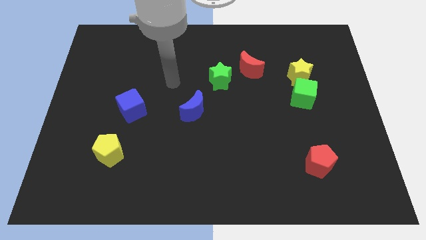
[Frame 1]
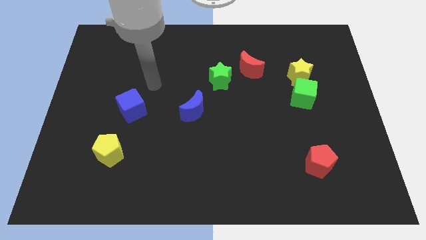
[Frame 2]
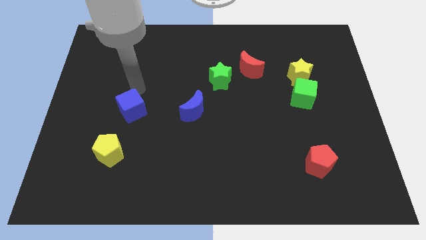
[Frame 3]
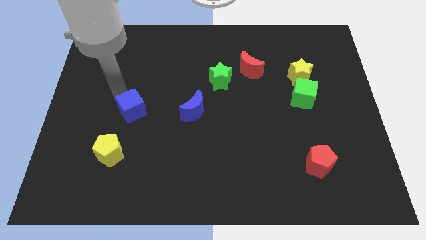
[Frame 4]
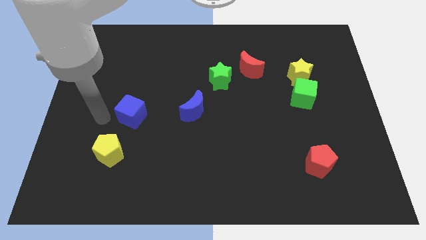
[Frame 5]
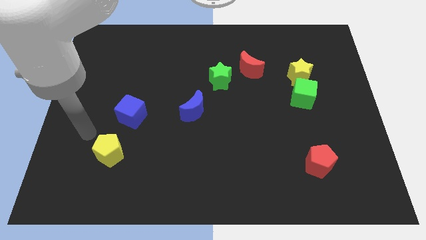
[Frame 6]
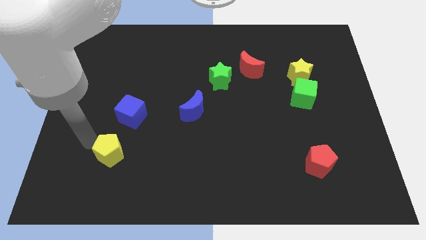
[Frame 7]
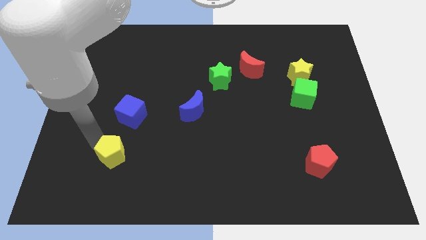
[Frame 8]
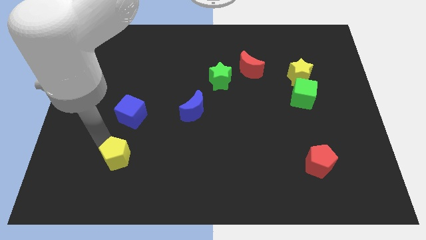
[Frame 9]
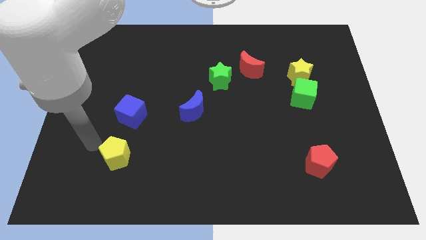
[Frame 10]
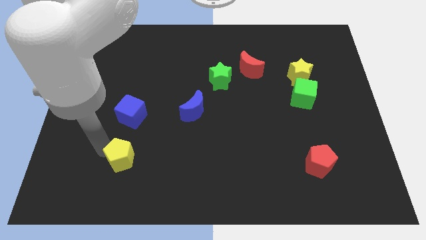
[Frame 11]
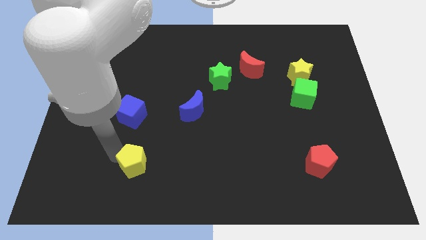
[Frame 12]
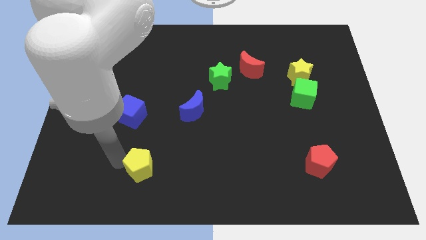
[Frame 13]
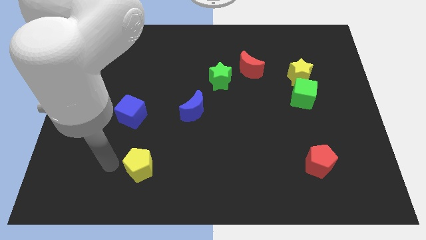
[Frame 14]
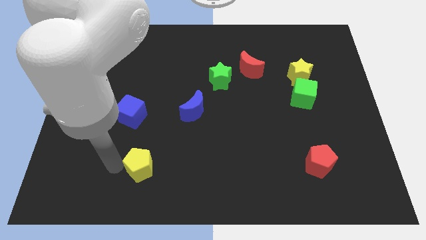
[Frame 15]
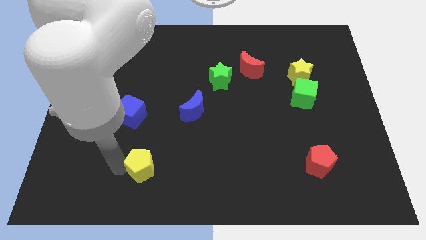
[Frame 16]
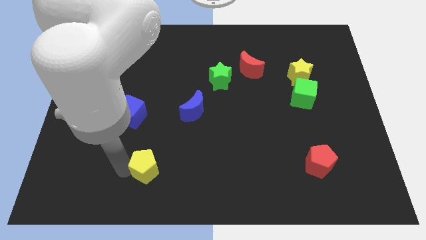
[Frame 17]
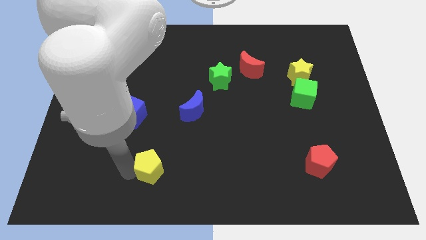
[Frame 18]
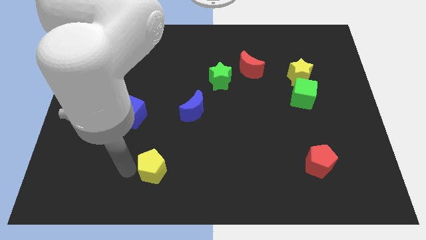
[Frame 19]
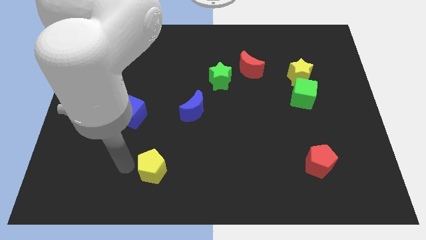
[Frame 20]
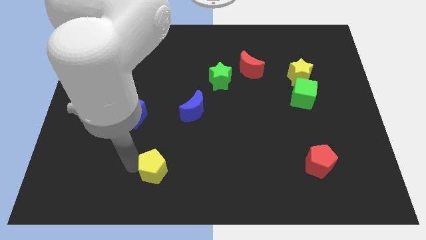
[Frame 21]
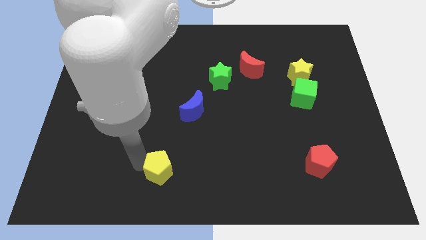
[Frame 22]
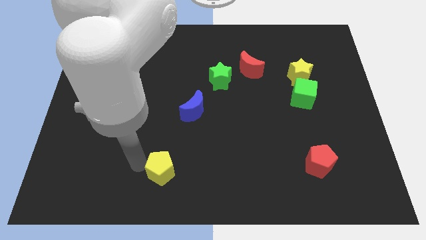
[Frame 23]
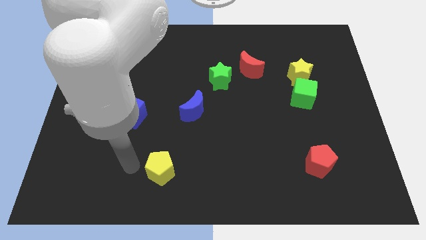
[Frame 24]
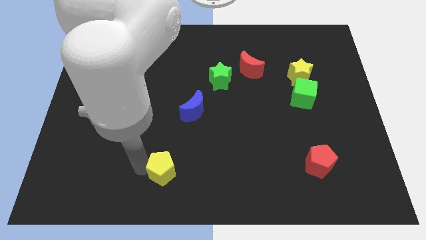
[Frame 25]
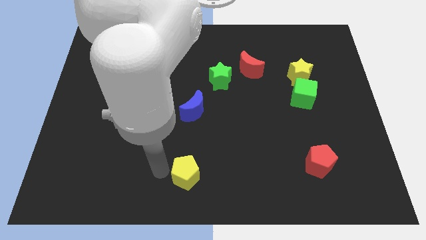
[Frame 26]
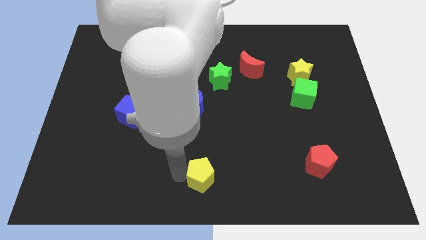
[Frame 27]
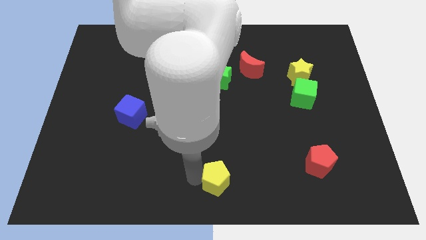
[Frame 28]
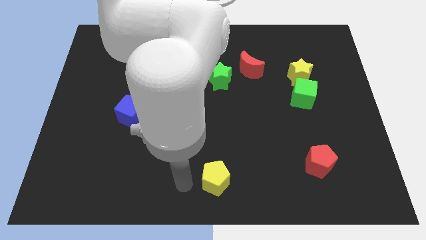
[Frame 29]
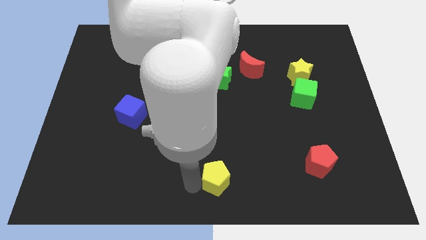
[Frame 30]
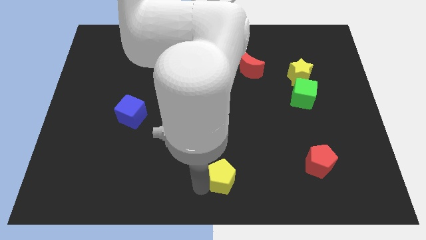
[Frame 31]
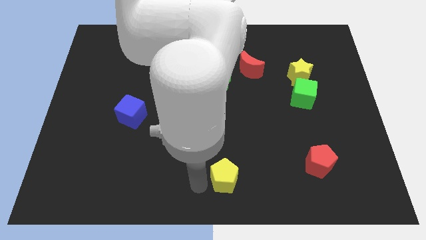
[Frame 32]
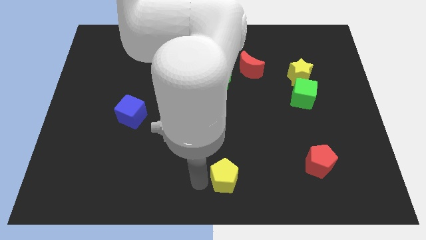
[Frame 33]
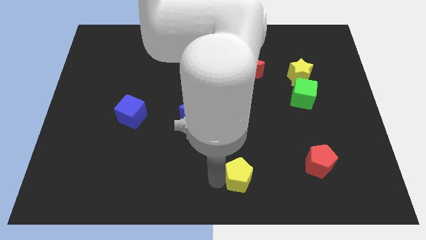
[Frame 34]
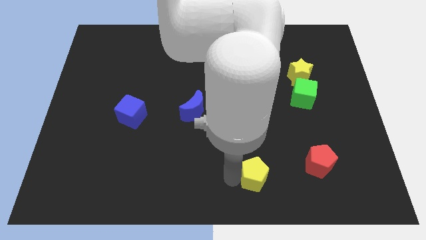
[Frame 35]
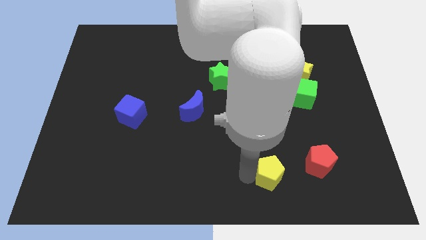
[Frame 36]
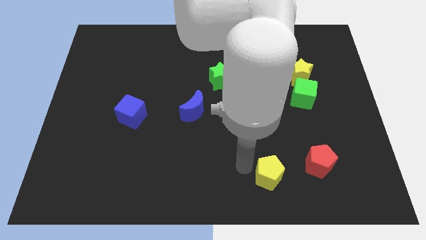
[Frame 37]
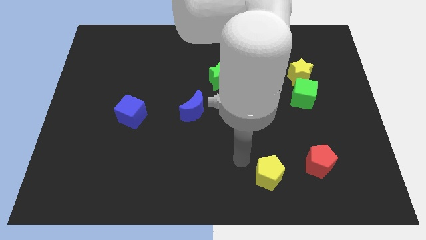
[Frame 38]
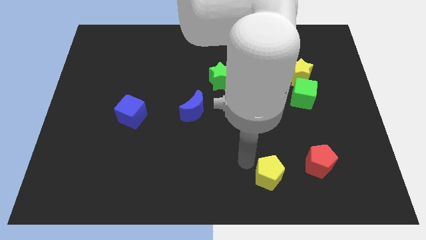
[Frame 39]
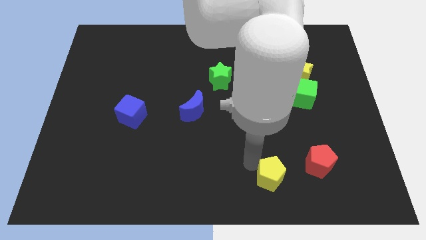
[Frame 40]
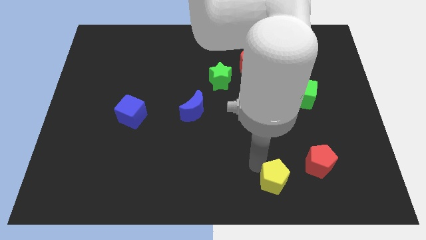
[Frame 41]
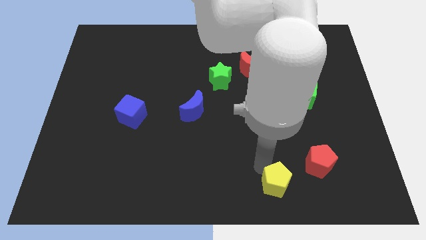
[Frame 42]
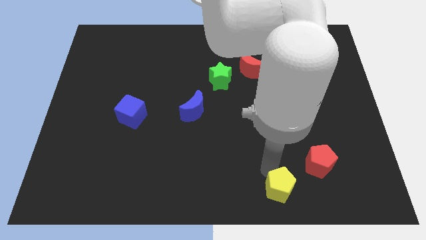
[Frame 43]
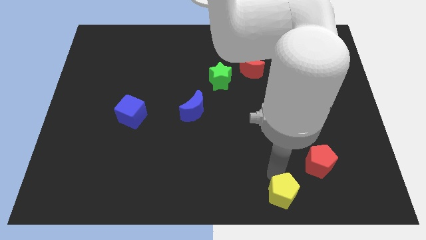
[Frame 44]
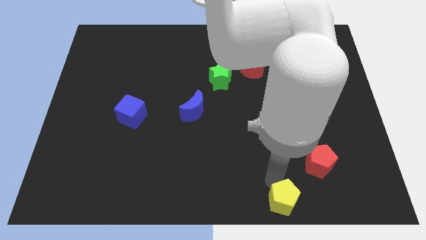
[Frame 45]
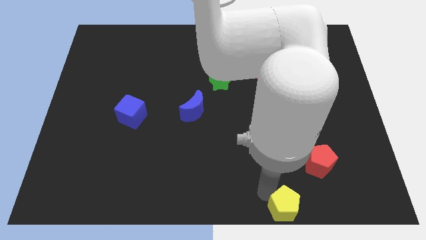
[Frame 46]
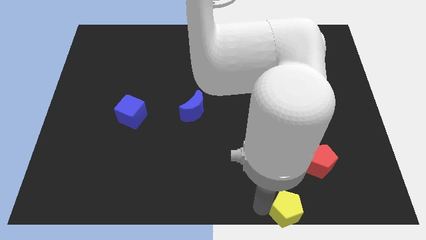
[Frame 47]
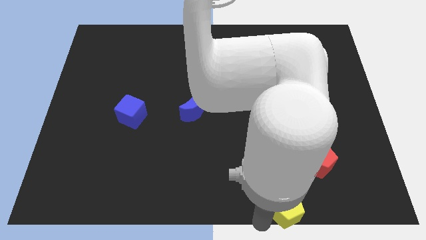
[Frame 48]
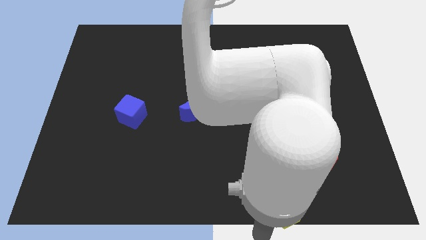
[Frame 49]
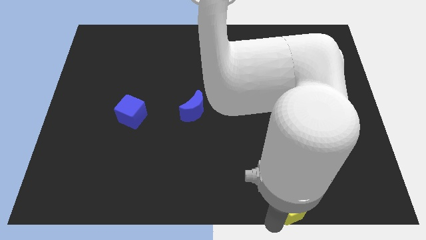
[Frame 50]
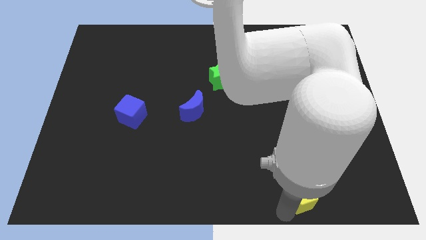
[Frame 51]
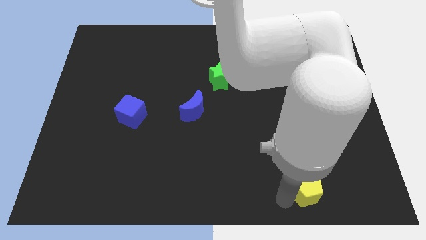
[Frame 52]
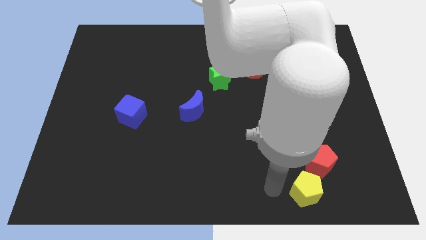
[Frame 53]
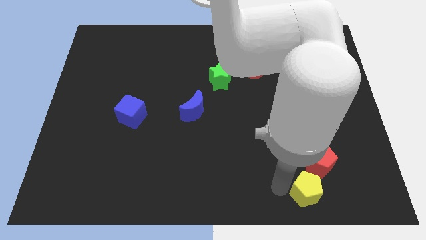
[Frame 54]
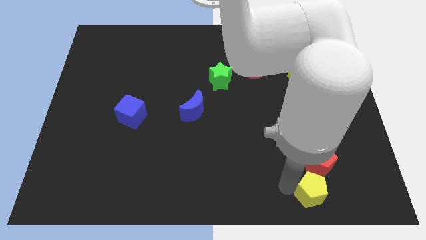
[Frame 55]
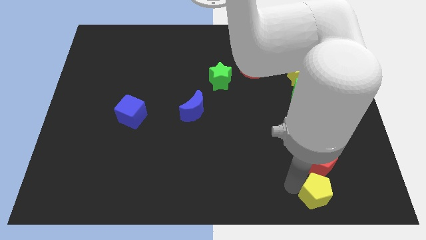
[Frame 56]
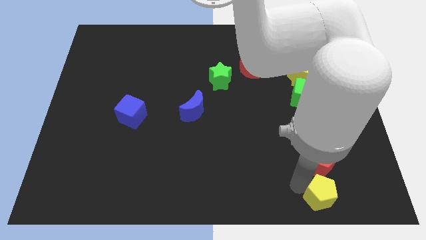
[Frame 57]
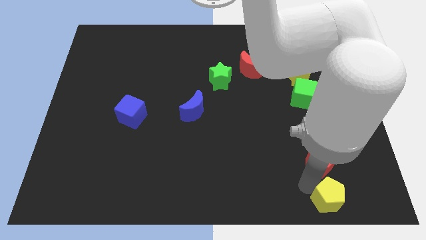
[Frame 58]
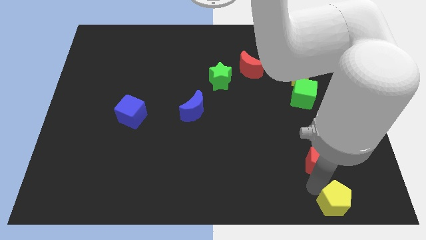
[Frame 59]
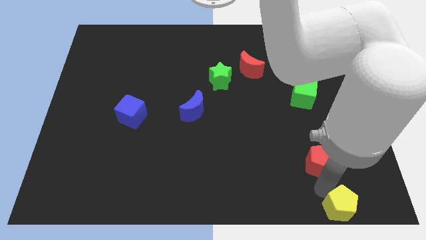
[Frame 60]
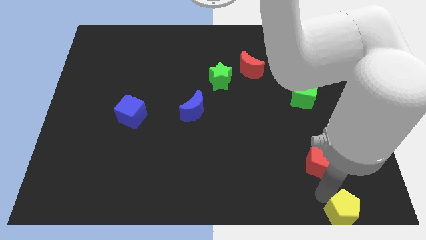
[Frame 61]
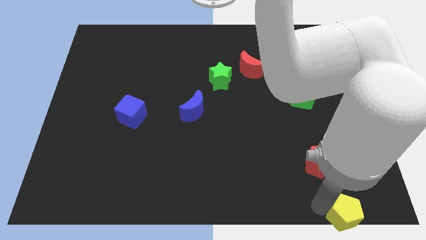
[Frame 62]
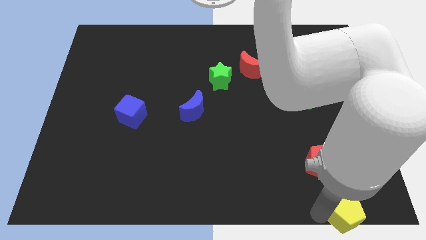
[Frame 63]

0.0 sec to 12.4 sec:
put the yellow pentagon to the bottom right
